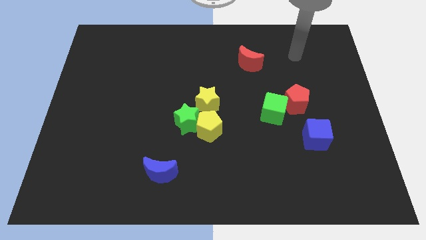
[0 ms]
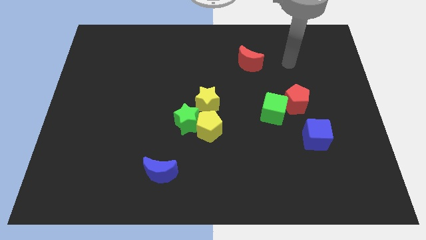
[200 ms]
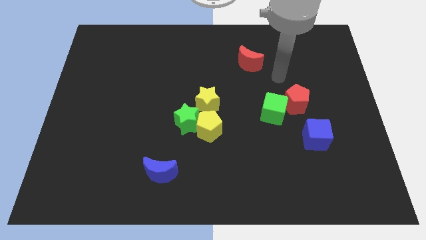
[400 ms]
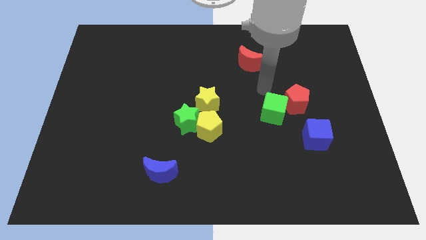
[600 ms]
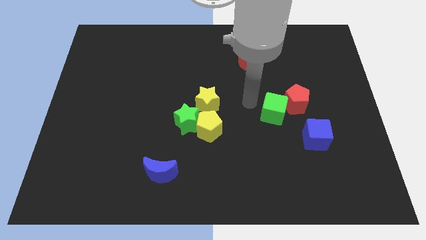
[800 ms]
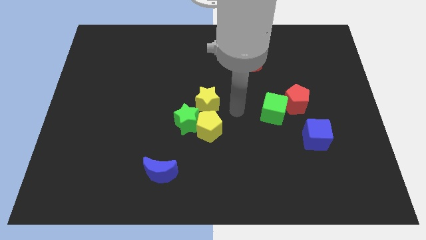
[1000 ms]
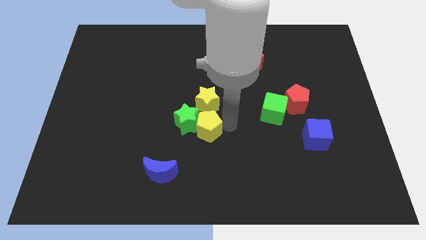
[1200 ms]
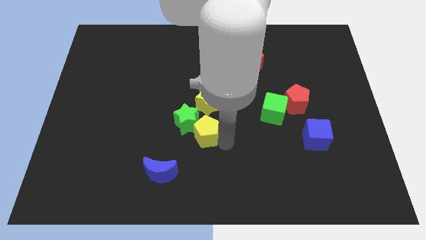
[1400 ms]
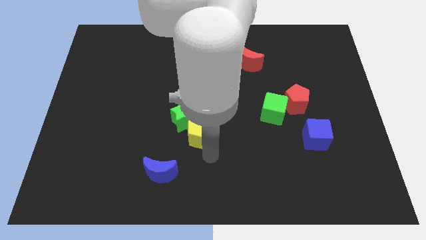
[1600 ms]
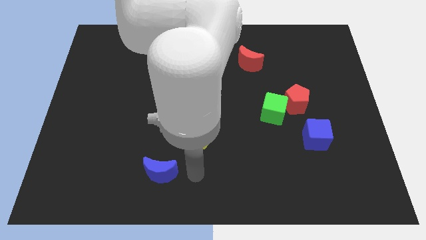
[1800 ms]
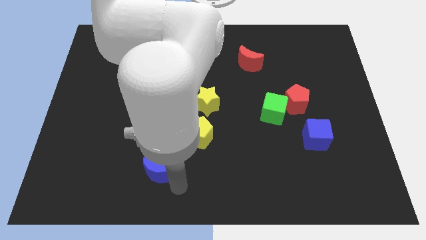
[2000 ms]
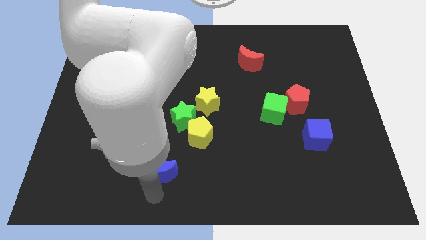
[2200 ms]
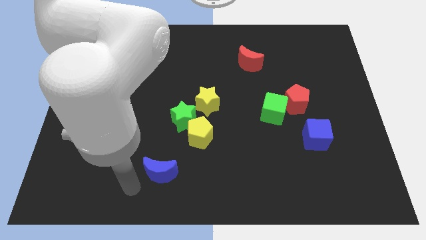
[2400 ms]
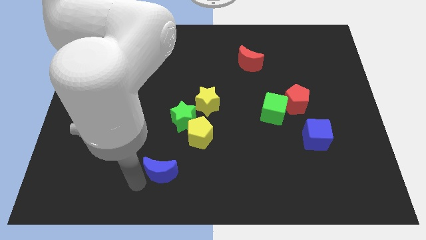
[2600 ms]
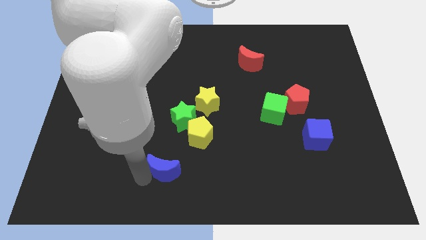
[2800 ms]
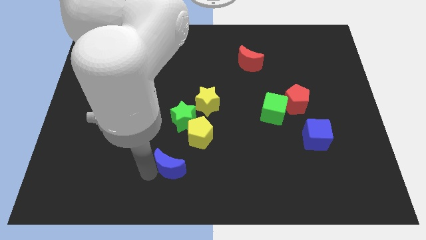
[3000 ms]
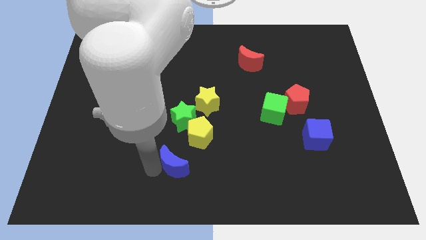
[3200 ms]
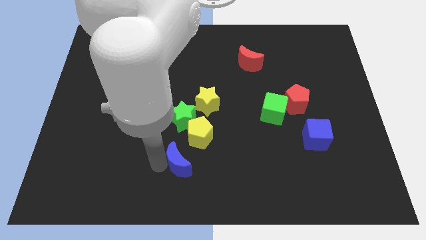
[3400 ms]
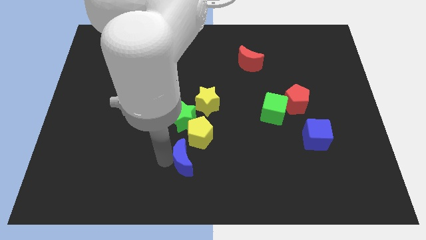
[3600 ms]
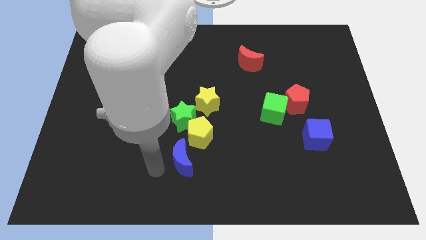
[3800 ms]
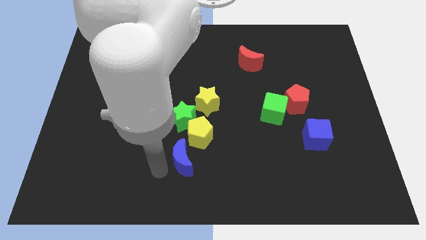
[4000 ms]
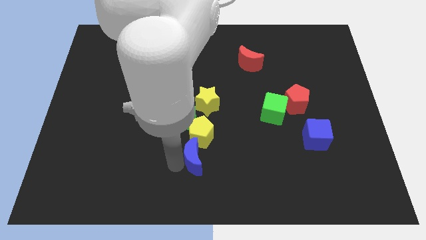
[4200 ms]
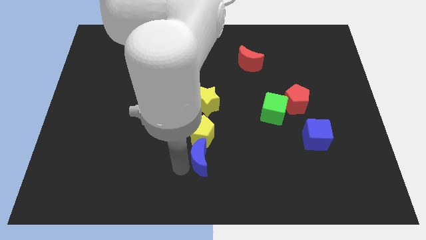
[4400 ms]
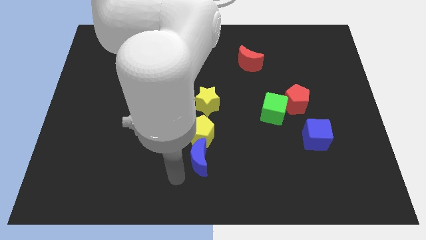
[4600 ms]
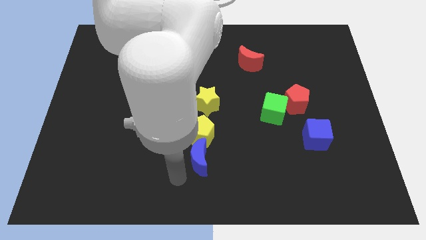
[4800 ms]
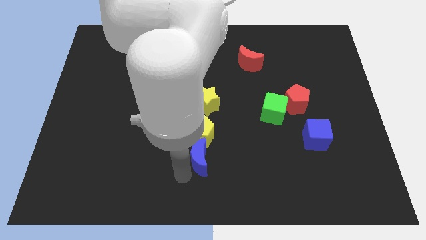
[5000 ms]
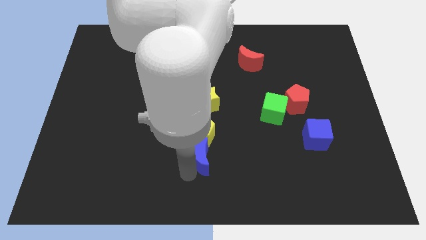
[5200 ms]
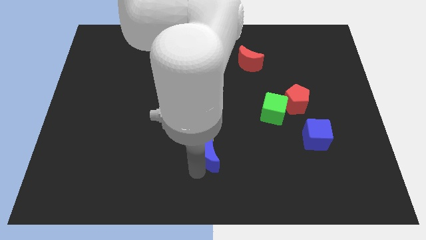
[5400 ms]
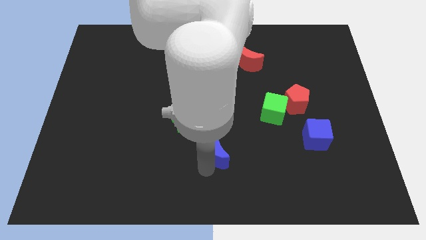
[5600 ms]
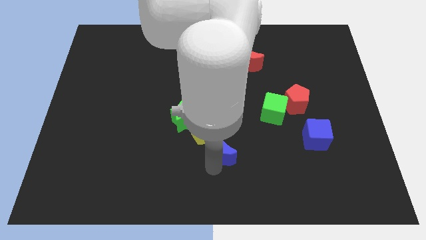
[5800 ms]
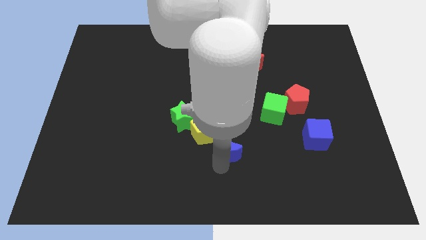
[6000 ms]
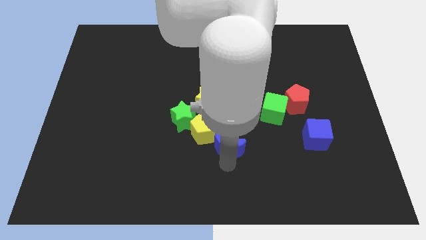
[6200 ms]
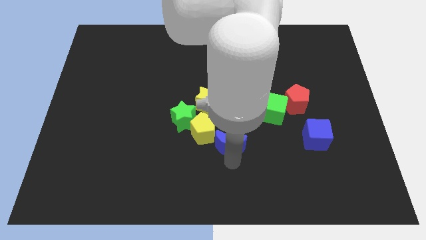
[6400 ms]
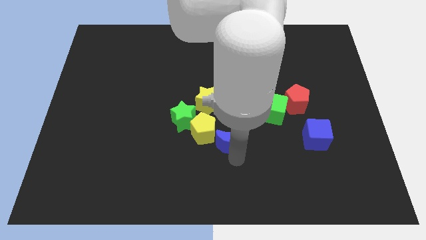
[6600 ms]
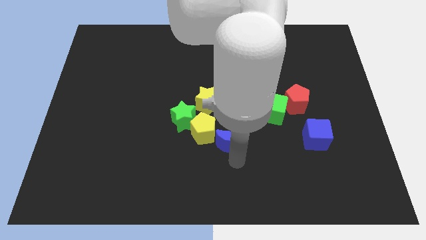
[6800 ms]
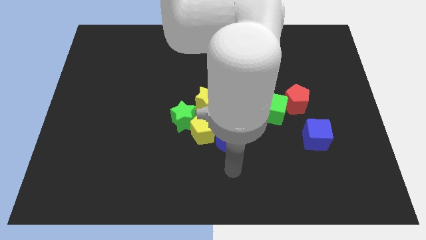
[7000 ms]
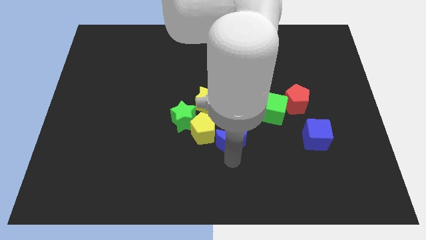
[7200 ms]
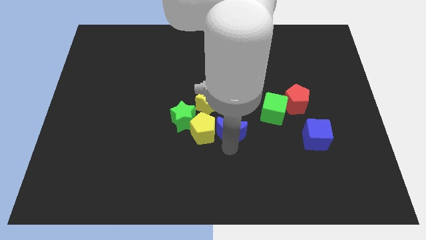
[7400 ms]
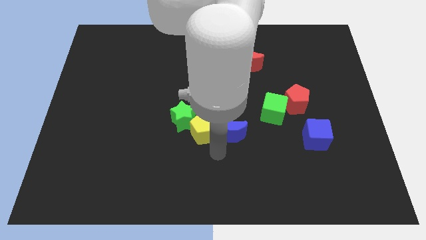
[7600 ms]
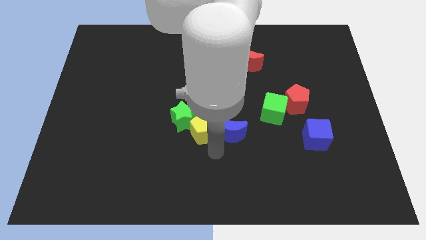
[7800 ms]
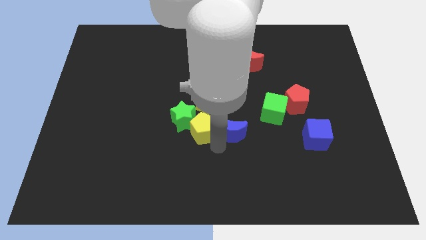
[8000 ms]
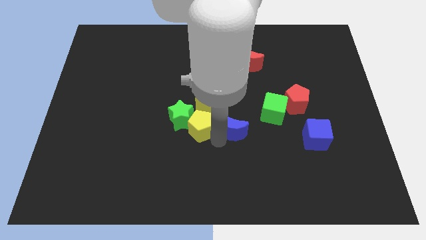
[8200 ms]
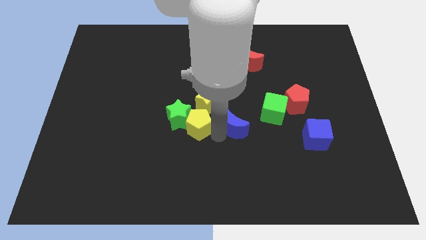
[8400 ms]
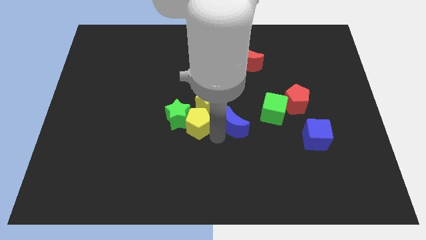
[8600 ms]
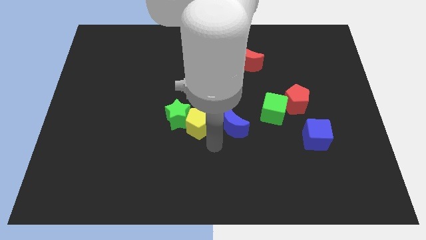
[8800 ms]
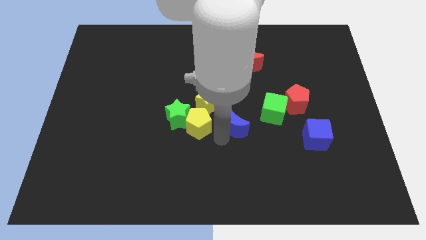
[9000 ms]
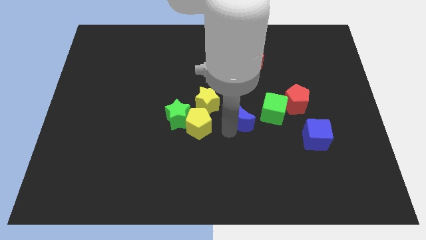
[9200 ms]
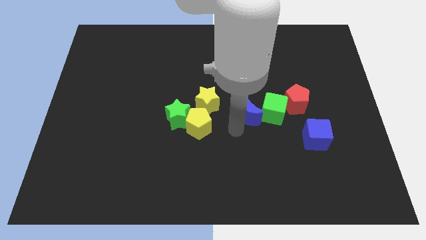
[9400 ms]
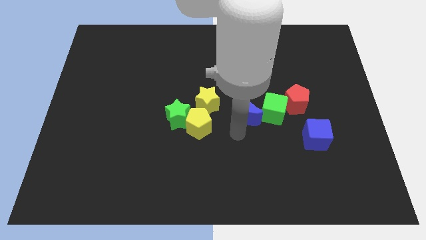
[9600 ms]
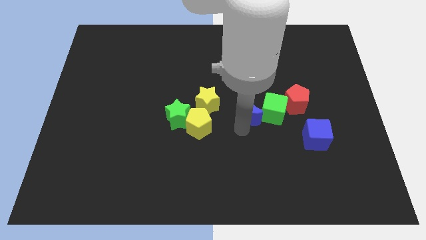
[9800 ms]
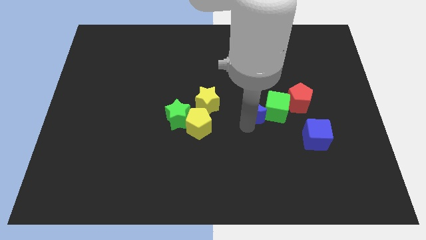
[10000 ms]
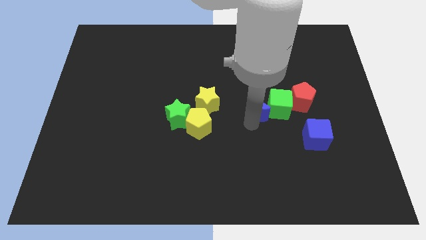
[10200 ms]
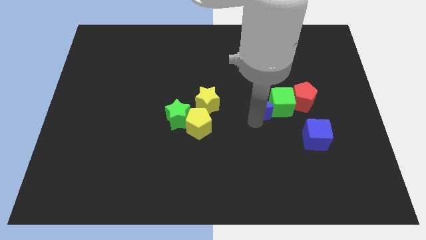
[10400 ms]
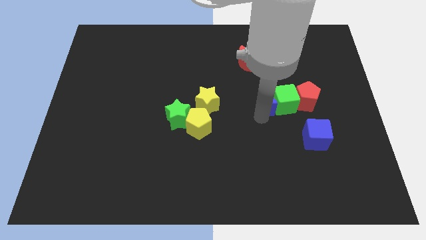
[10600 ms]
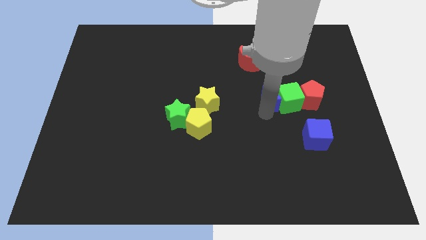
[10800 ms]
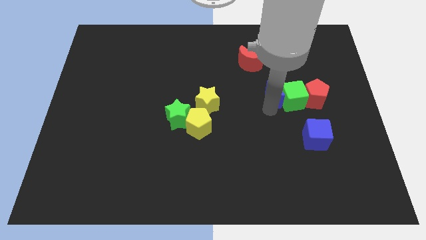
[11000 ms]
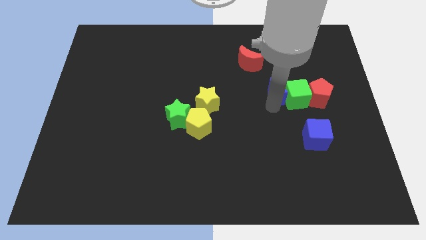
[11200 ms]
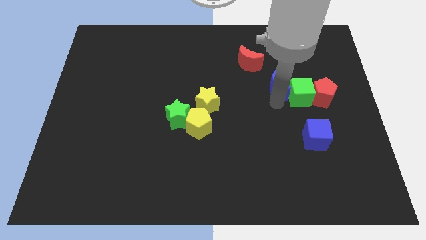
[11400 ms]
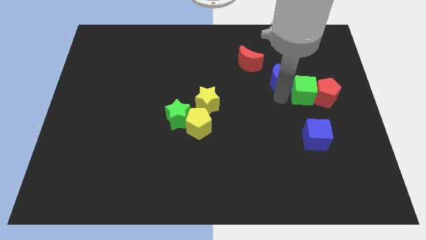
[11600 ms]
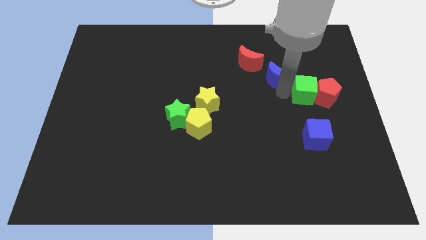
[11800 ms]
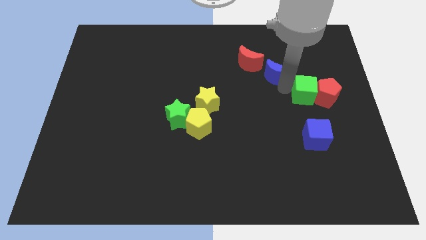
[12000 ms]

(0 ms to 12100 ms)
move the blue moon to the right side of the red moon

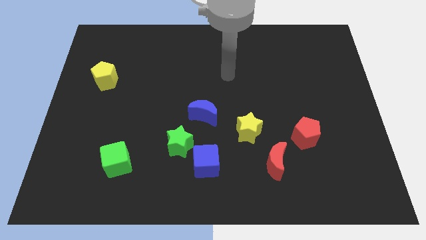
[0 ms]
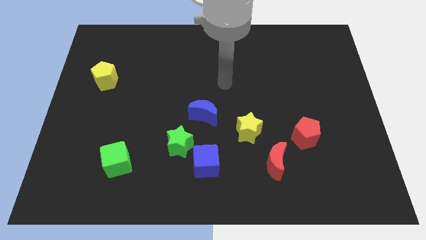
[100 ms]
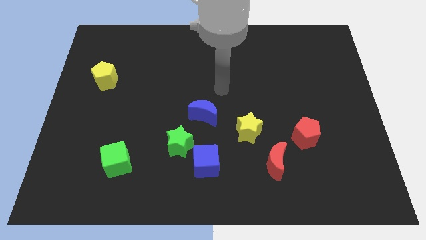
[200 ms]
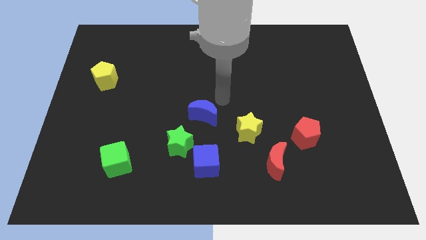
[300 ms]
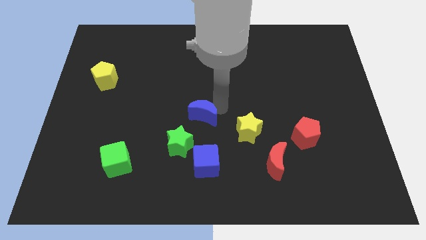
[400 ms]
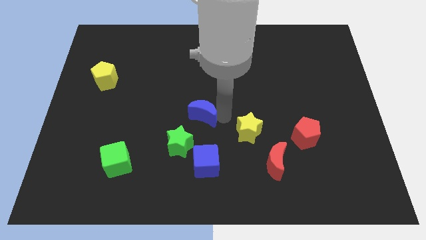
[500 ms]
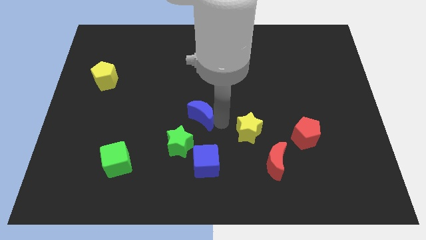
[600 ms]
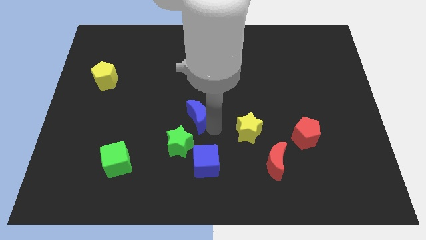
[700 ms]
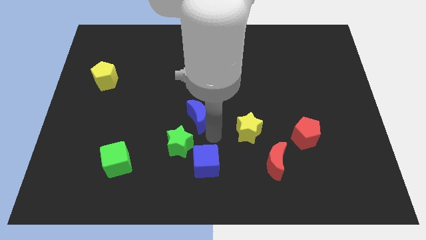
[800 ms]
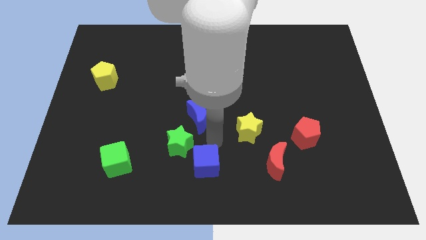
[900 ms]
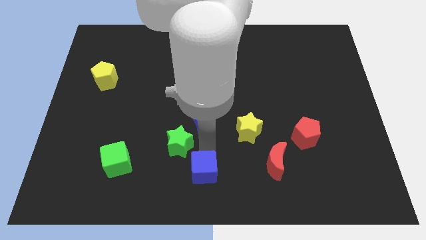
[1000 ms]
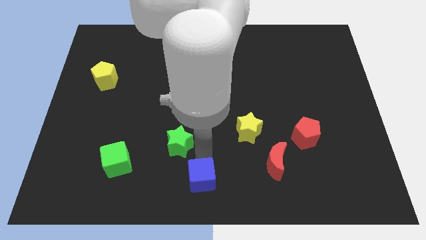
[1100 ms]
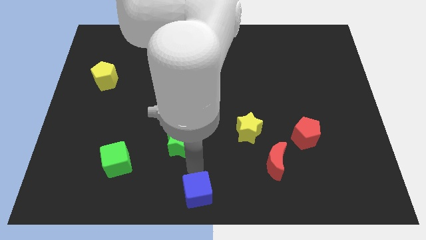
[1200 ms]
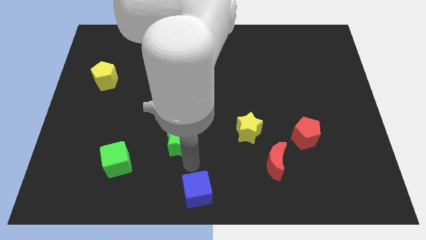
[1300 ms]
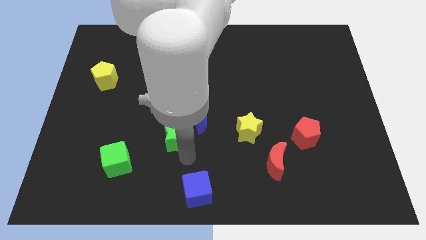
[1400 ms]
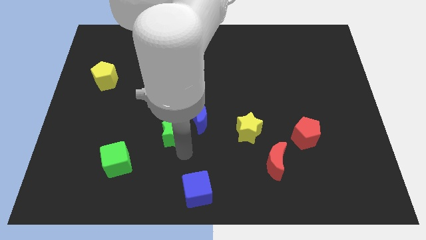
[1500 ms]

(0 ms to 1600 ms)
push the green star just left of the blue moon
